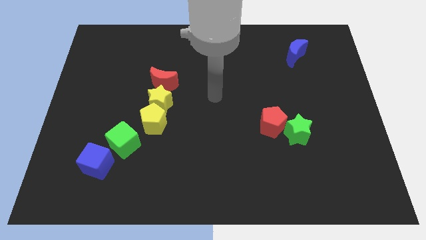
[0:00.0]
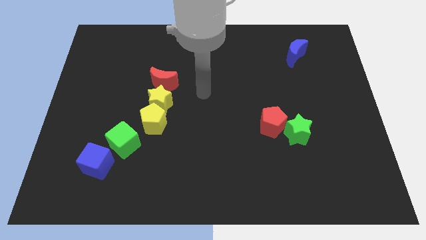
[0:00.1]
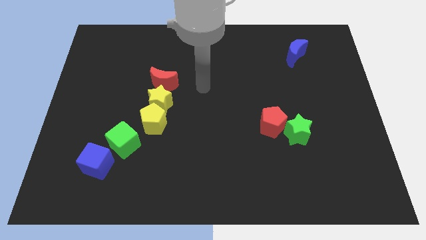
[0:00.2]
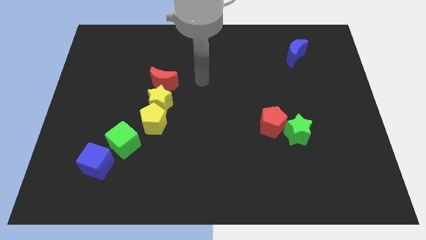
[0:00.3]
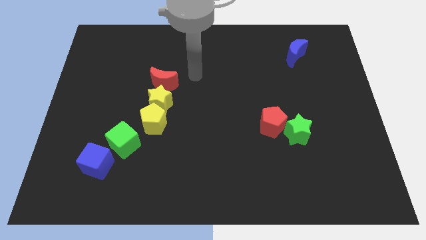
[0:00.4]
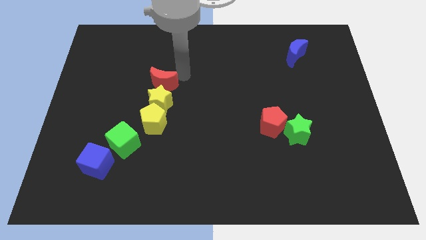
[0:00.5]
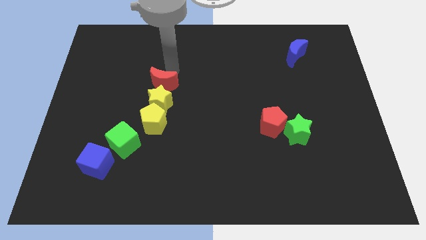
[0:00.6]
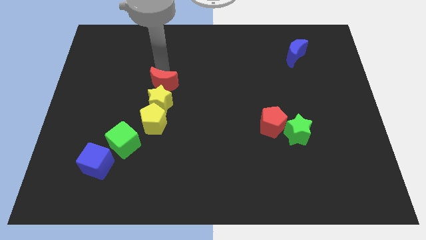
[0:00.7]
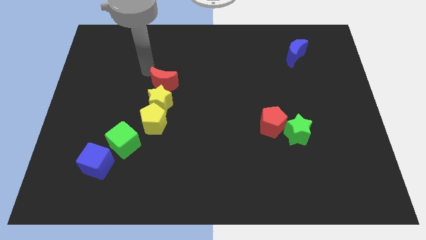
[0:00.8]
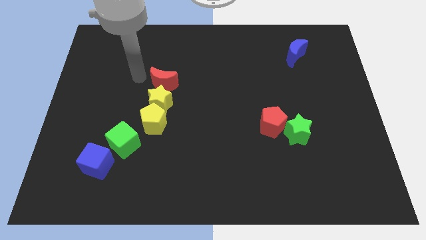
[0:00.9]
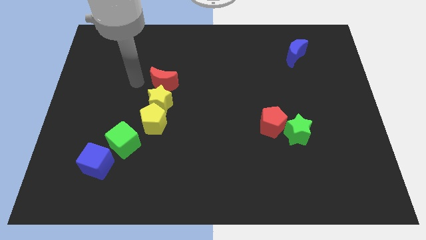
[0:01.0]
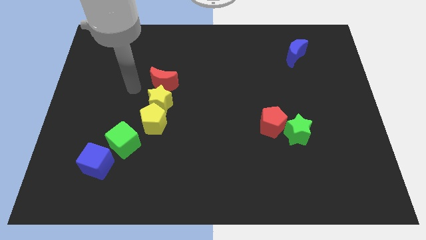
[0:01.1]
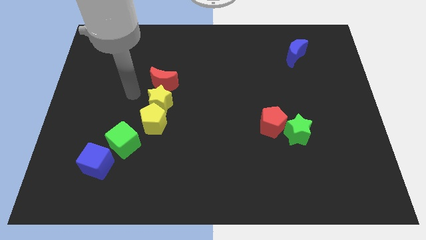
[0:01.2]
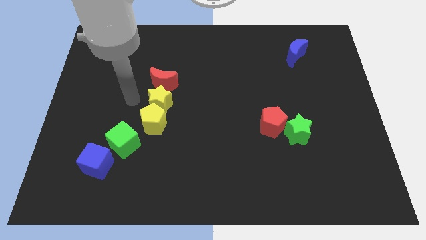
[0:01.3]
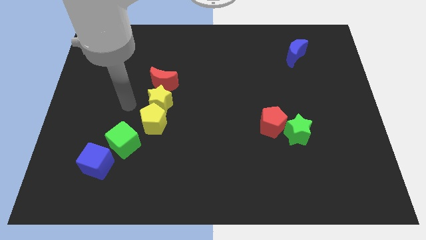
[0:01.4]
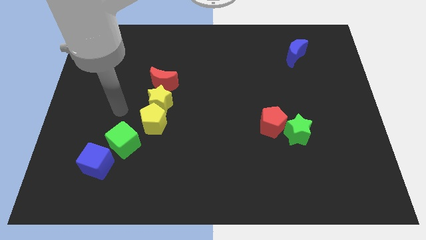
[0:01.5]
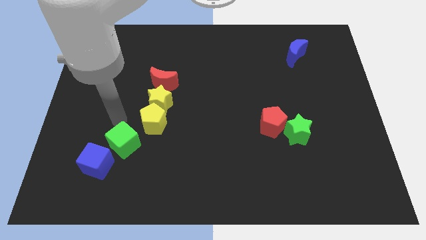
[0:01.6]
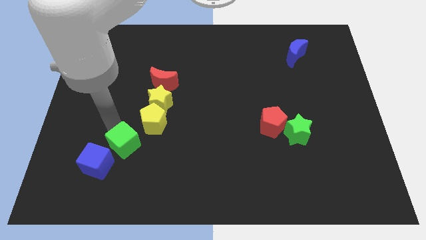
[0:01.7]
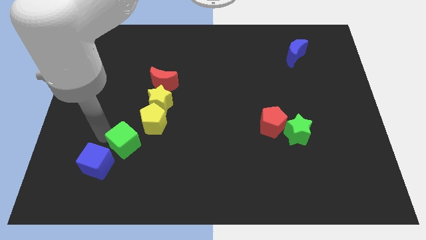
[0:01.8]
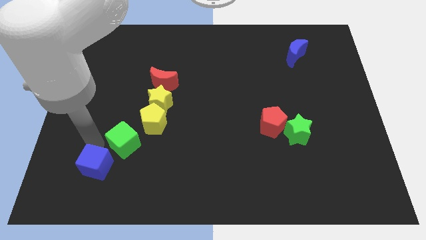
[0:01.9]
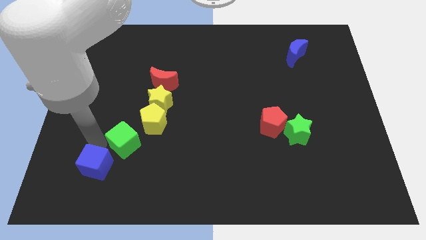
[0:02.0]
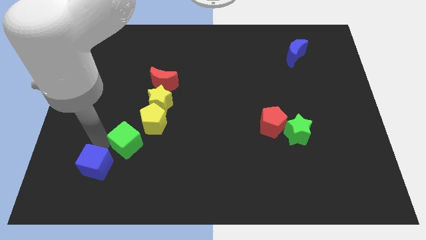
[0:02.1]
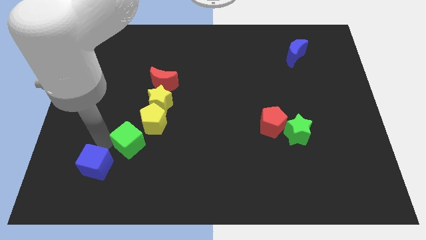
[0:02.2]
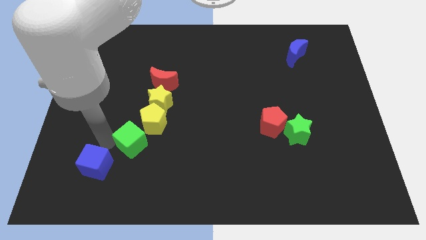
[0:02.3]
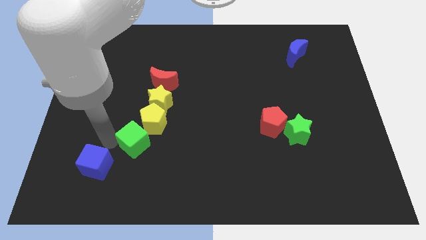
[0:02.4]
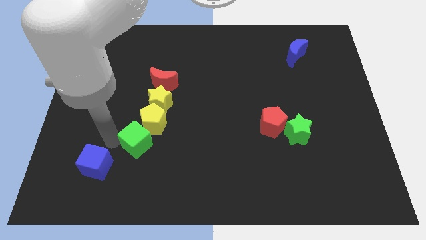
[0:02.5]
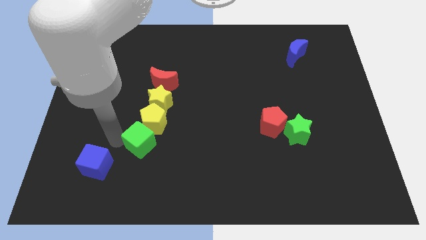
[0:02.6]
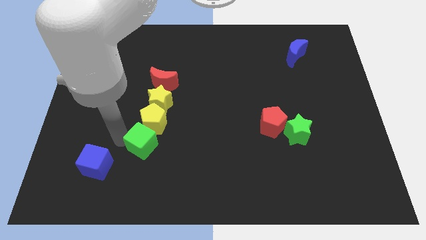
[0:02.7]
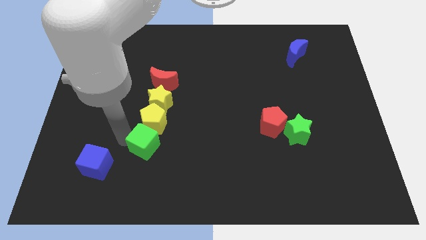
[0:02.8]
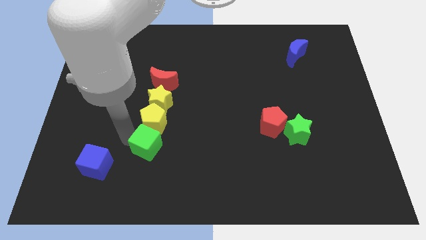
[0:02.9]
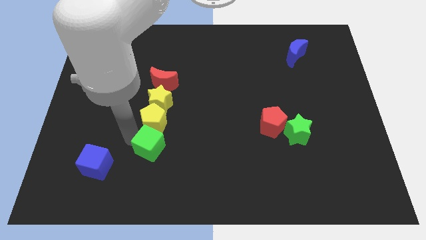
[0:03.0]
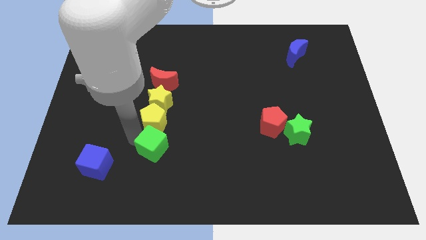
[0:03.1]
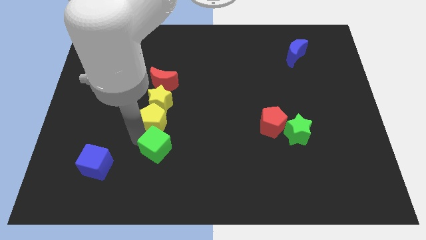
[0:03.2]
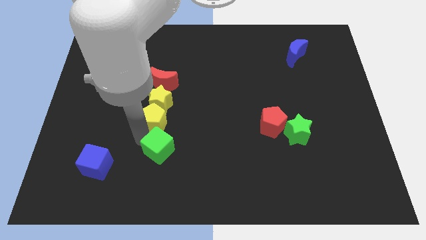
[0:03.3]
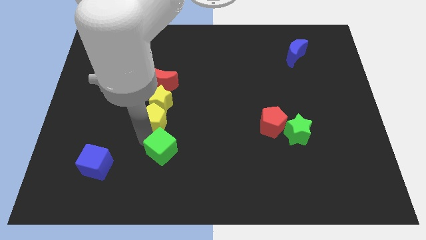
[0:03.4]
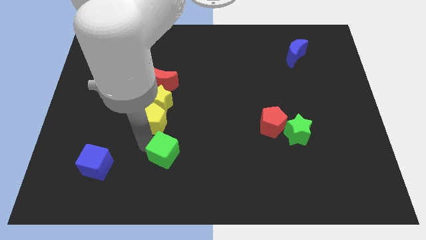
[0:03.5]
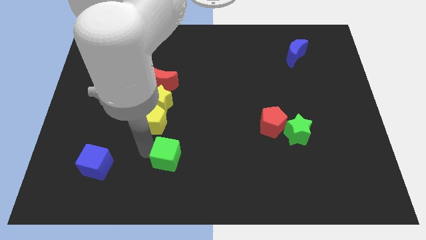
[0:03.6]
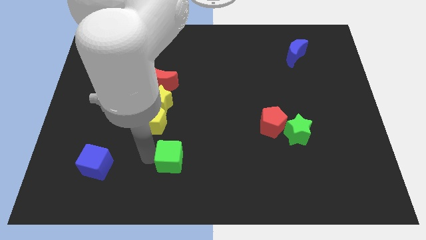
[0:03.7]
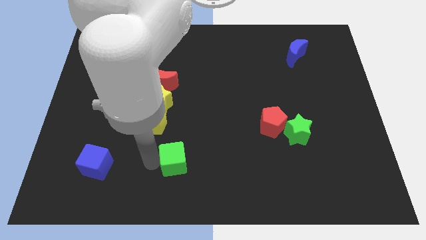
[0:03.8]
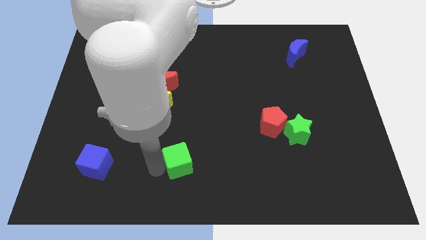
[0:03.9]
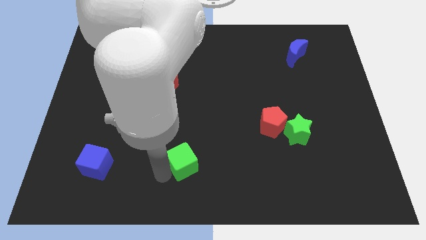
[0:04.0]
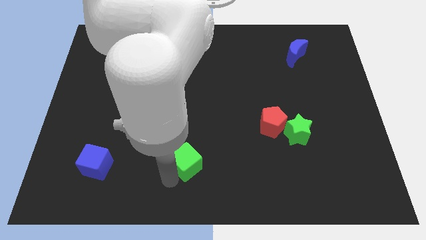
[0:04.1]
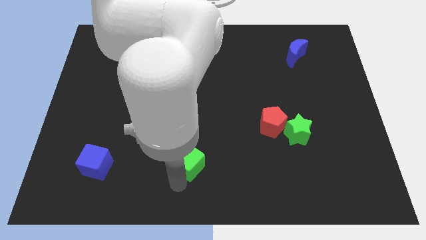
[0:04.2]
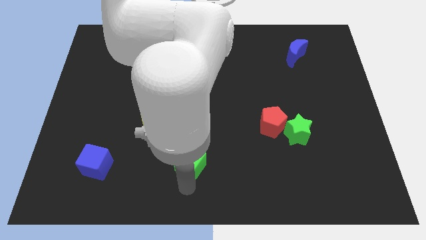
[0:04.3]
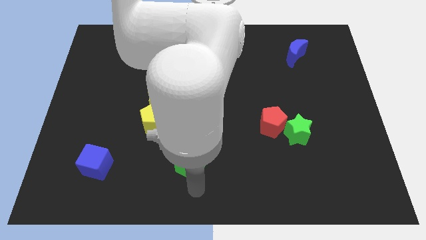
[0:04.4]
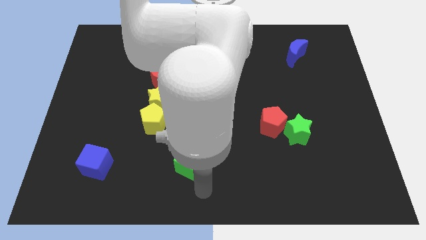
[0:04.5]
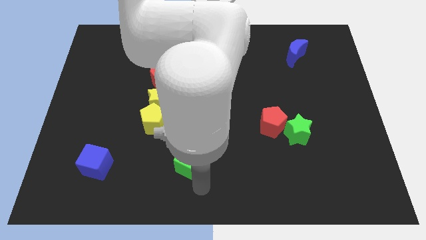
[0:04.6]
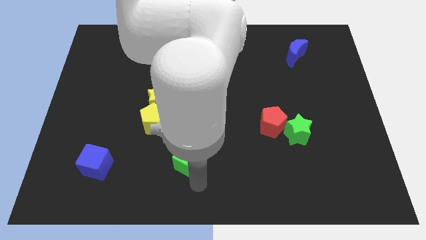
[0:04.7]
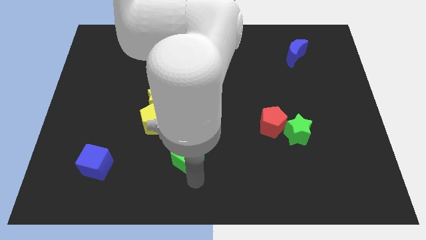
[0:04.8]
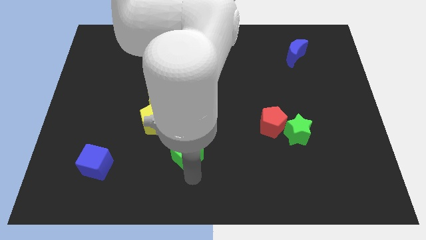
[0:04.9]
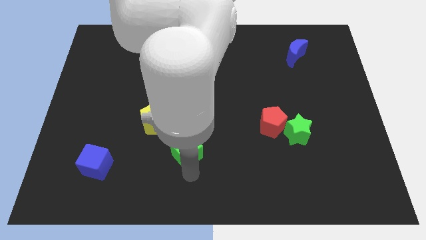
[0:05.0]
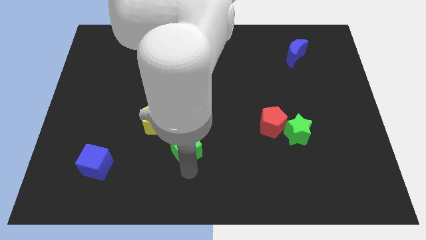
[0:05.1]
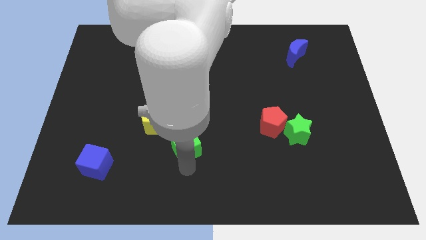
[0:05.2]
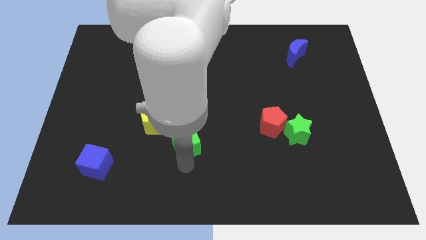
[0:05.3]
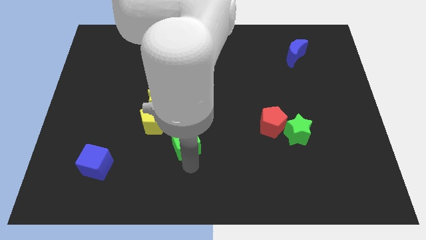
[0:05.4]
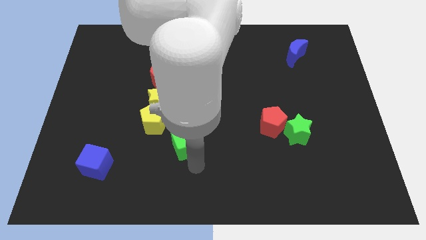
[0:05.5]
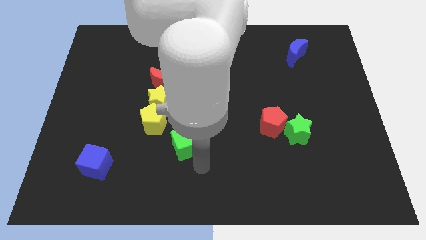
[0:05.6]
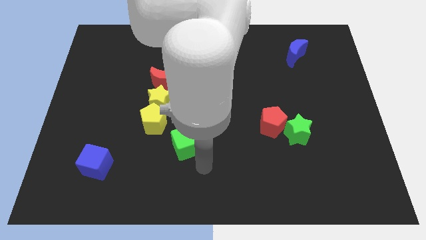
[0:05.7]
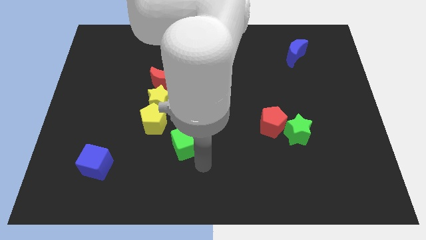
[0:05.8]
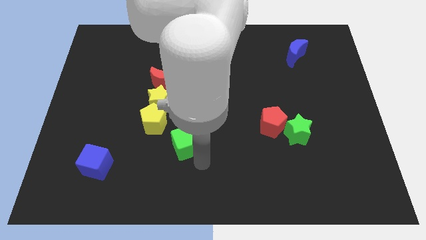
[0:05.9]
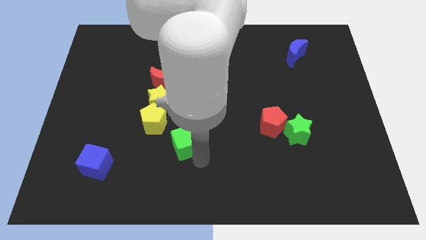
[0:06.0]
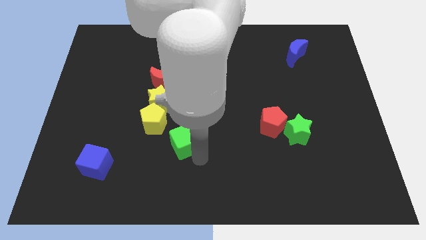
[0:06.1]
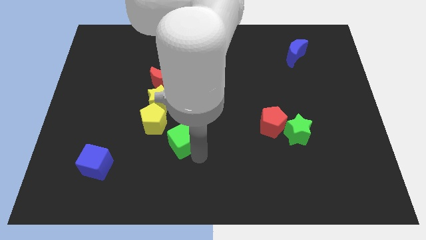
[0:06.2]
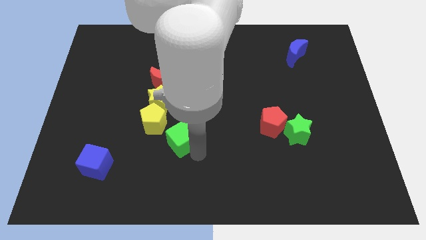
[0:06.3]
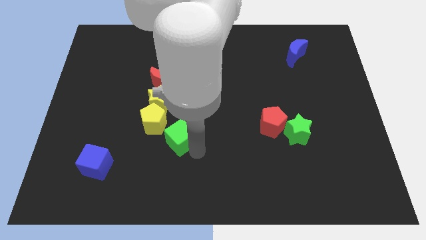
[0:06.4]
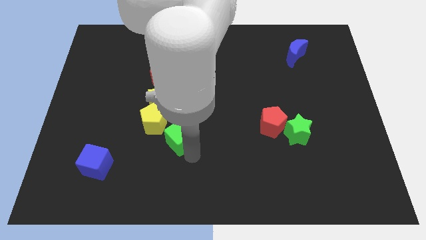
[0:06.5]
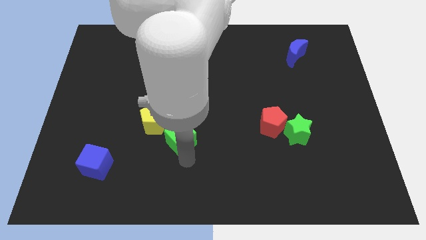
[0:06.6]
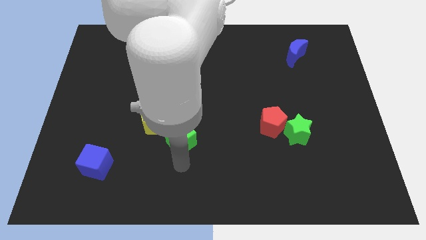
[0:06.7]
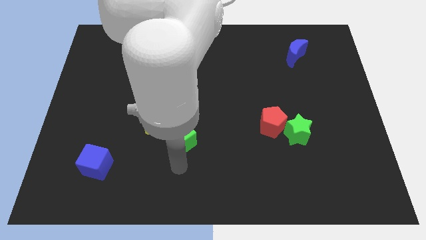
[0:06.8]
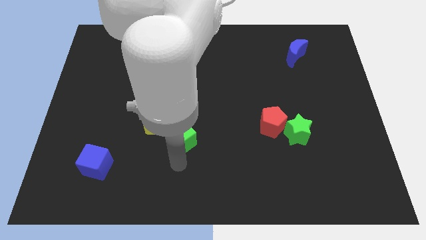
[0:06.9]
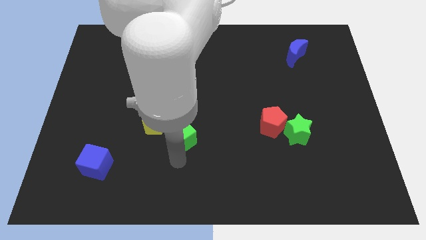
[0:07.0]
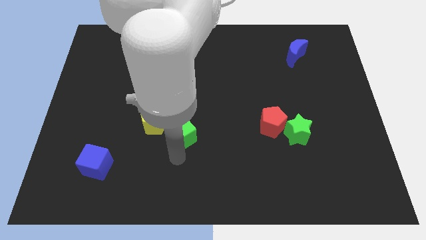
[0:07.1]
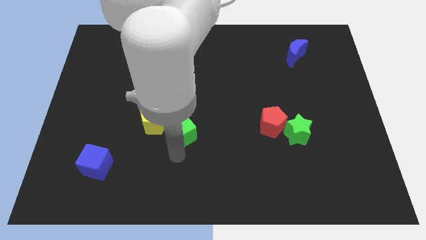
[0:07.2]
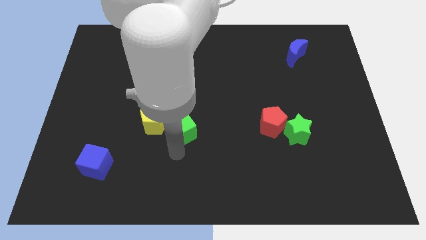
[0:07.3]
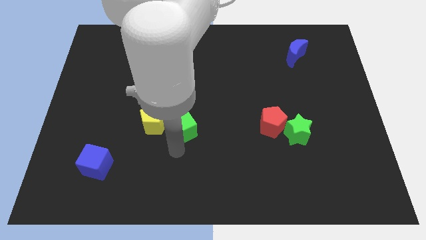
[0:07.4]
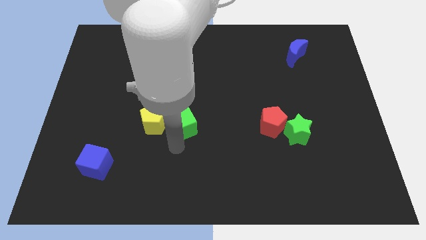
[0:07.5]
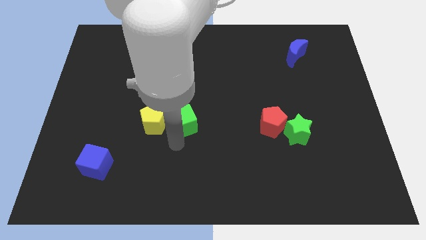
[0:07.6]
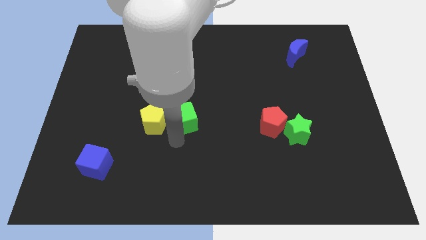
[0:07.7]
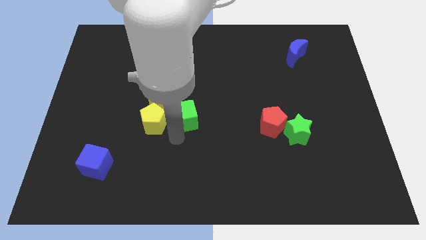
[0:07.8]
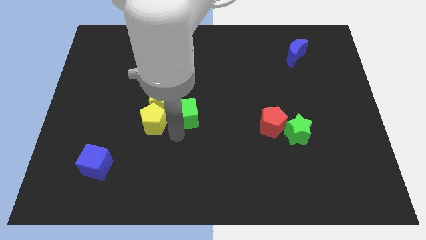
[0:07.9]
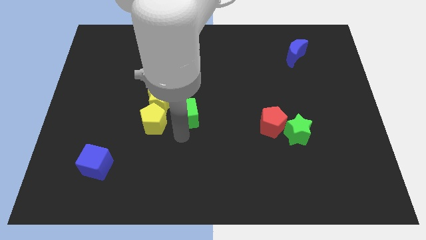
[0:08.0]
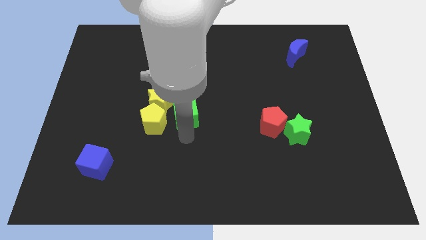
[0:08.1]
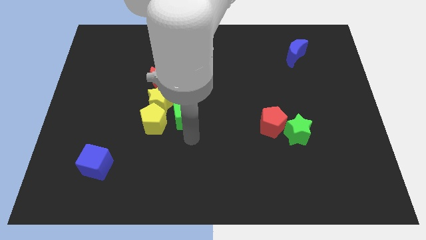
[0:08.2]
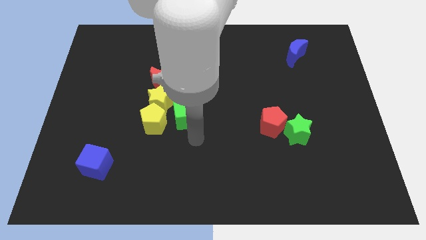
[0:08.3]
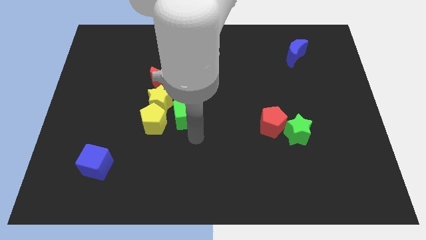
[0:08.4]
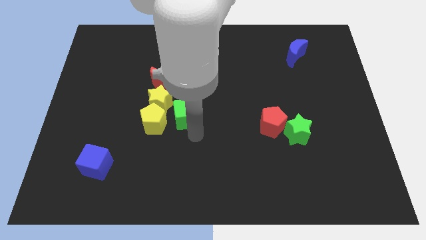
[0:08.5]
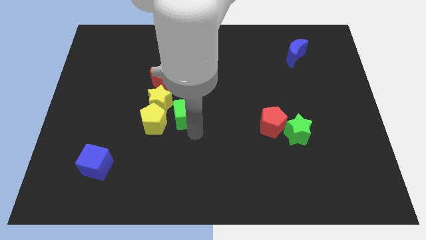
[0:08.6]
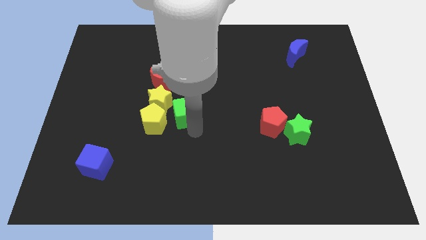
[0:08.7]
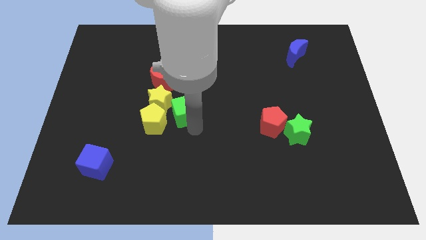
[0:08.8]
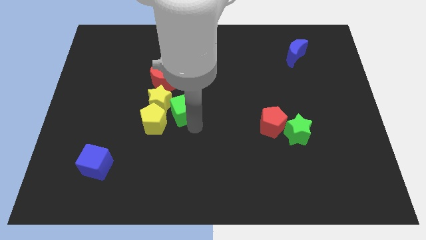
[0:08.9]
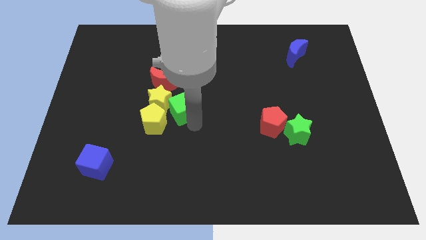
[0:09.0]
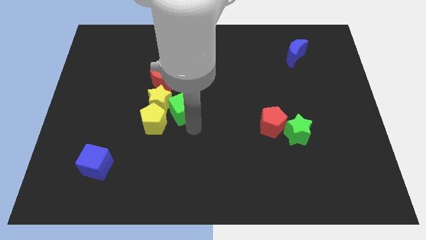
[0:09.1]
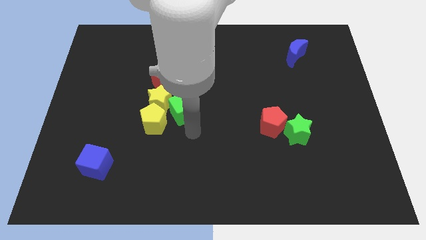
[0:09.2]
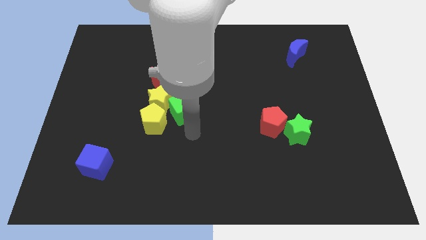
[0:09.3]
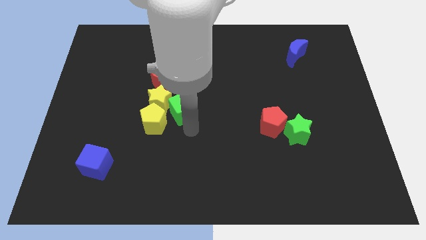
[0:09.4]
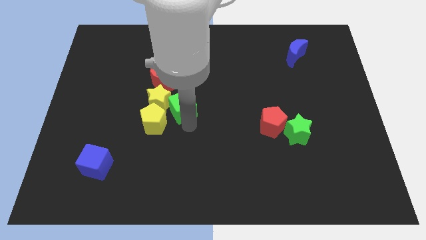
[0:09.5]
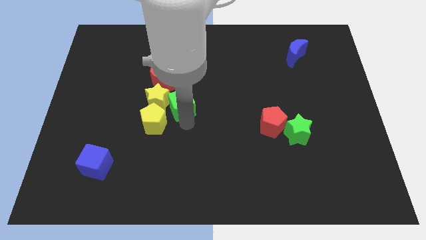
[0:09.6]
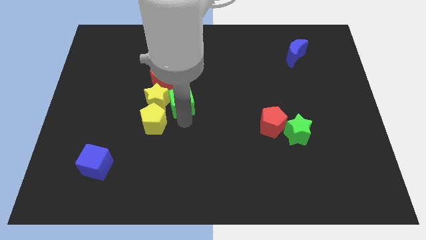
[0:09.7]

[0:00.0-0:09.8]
put the green cube to the top right of the yellow star
